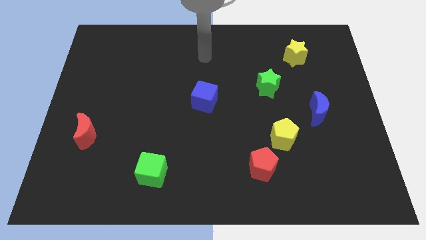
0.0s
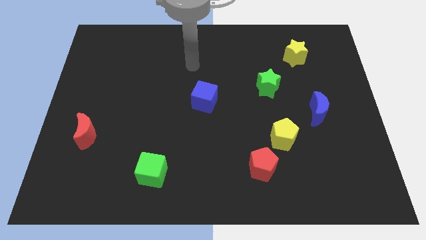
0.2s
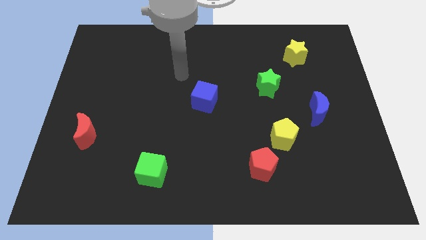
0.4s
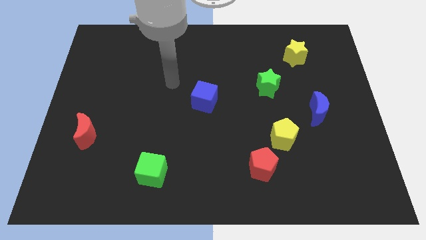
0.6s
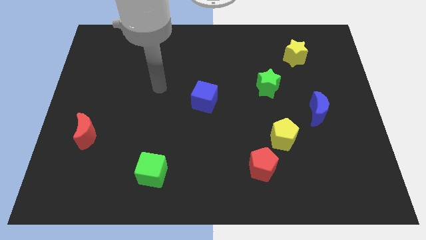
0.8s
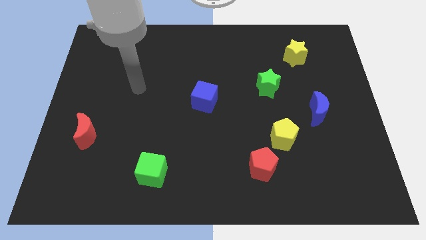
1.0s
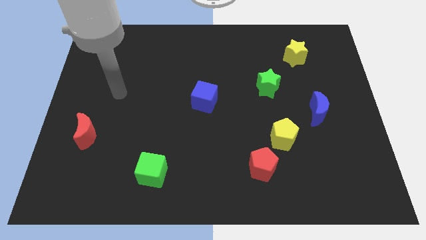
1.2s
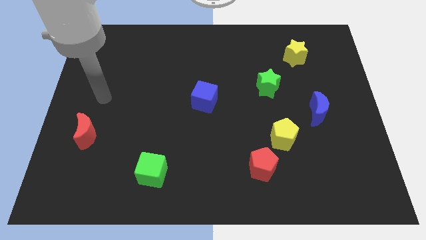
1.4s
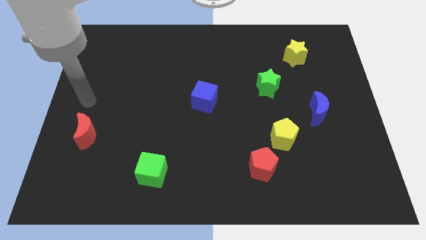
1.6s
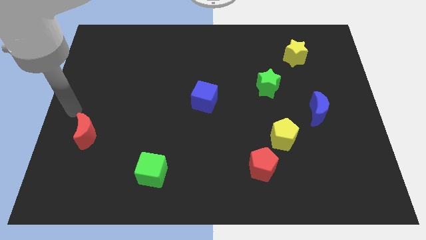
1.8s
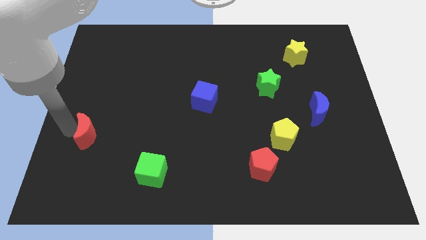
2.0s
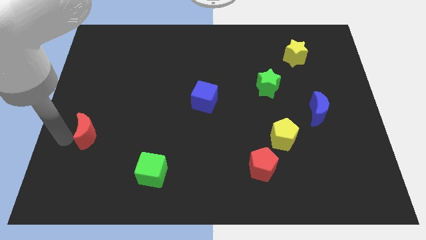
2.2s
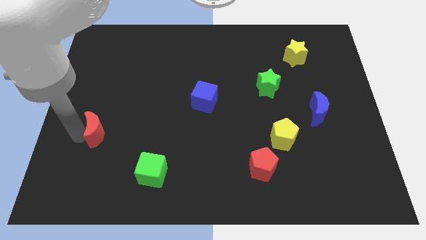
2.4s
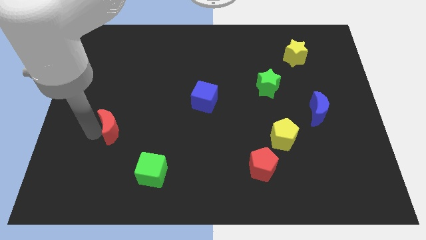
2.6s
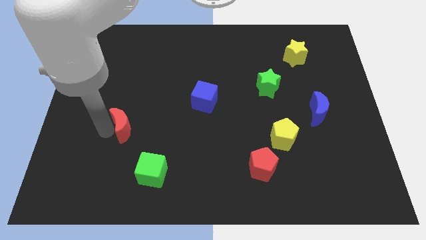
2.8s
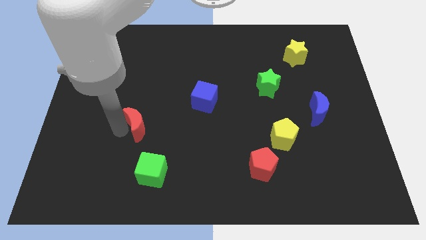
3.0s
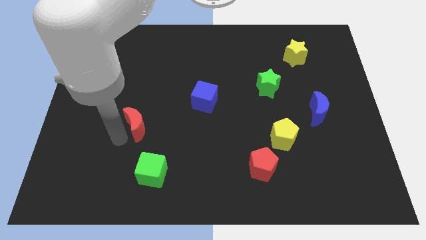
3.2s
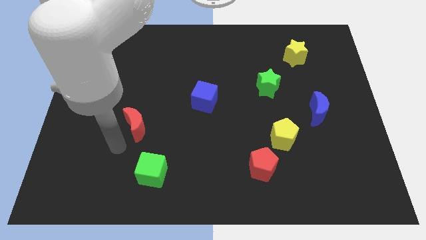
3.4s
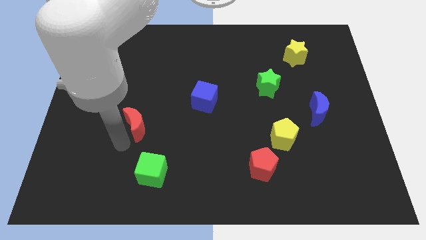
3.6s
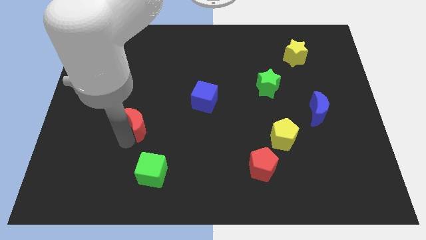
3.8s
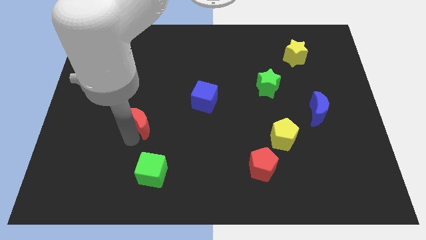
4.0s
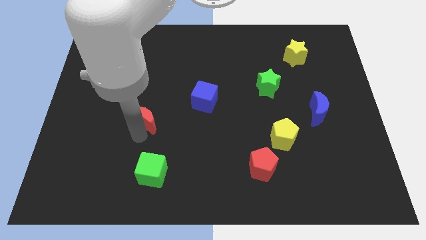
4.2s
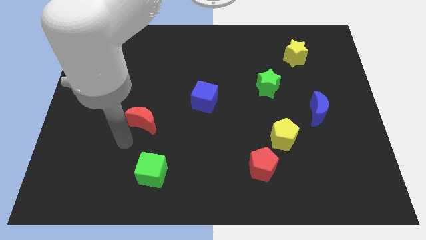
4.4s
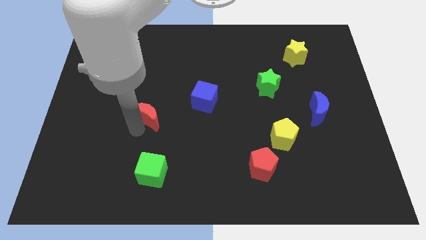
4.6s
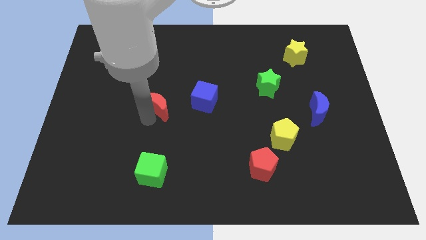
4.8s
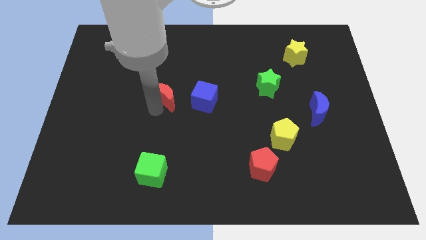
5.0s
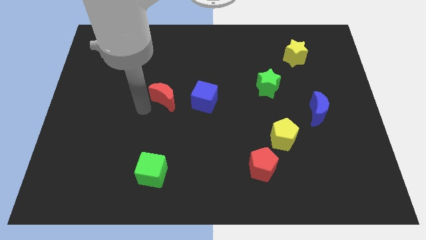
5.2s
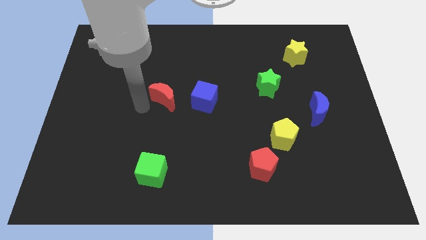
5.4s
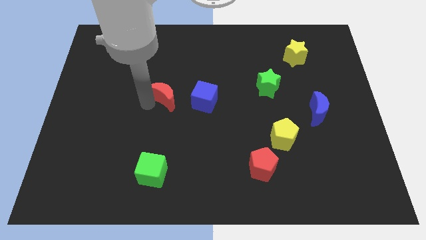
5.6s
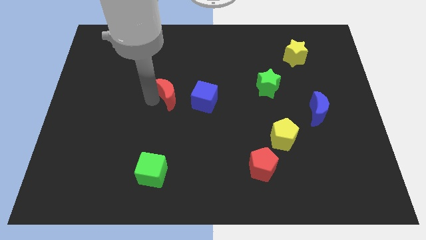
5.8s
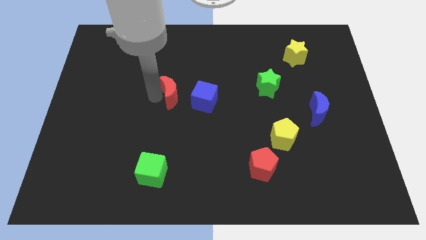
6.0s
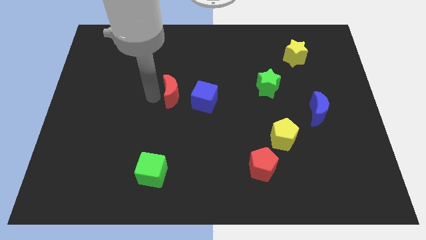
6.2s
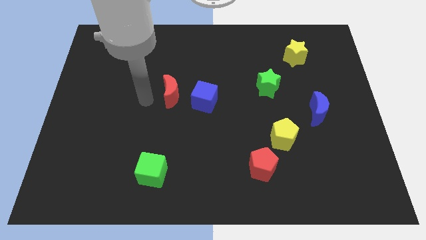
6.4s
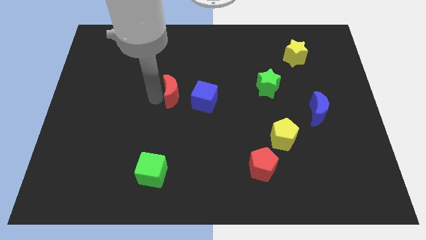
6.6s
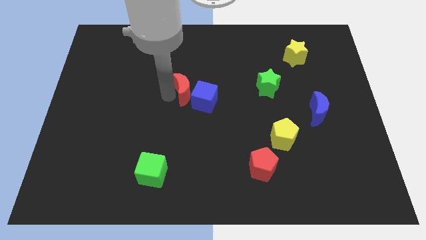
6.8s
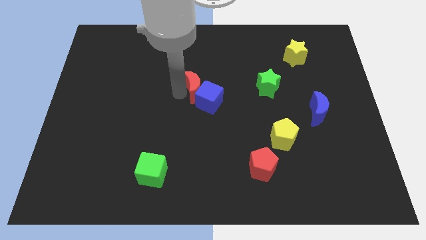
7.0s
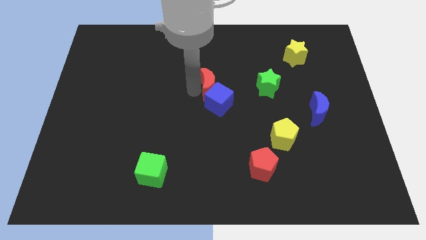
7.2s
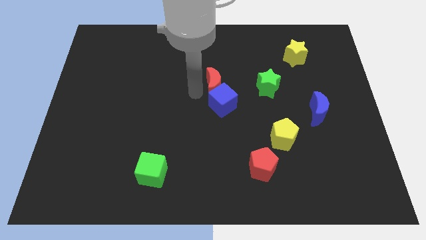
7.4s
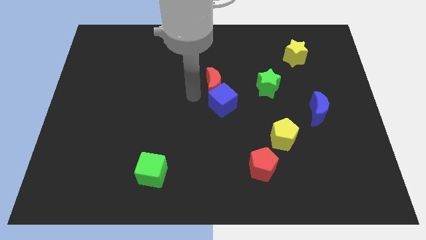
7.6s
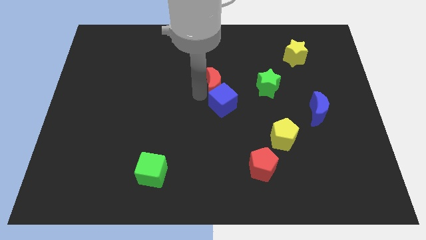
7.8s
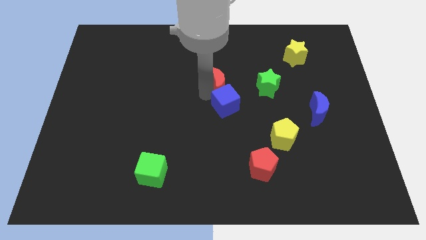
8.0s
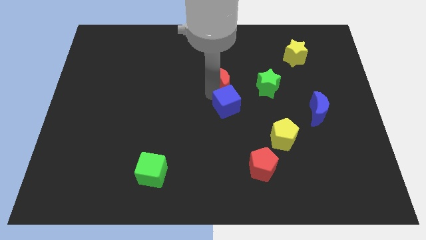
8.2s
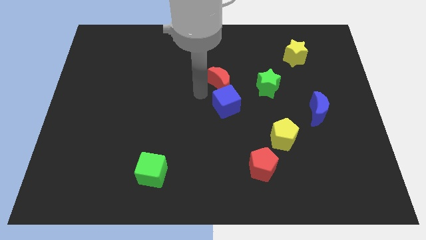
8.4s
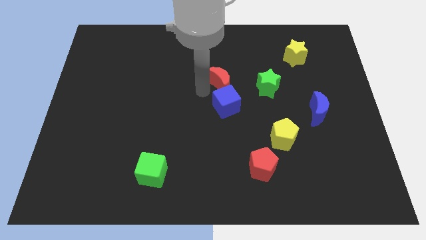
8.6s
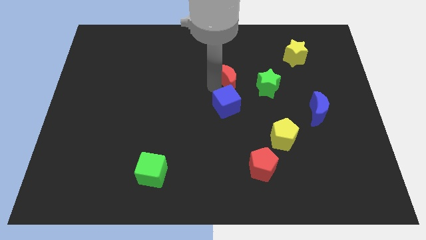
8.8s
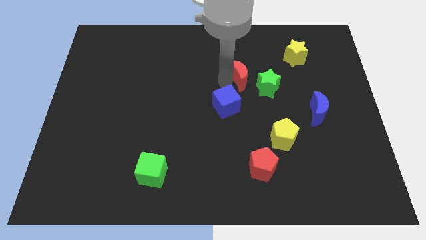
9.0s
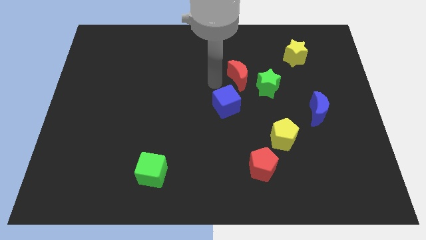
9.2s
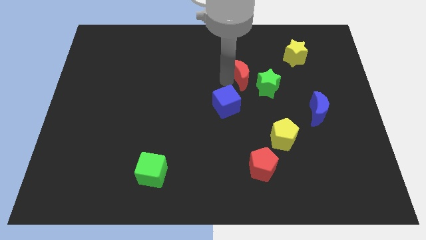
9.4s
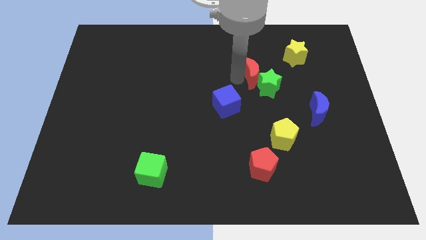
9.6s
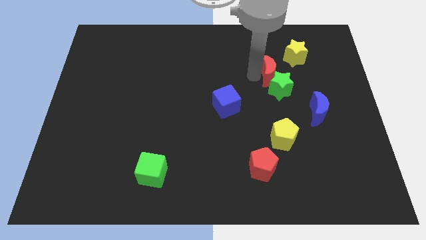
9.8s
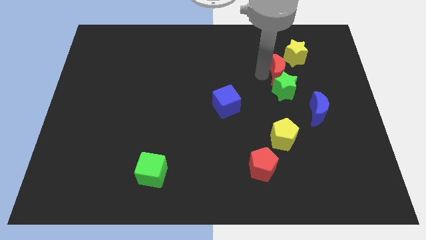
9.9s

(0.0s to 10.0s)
move the red moon to the top right side of the green star

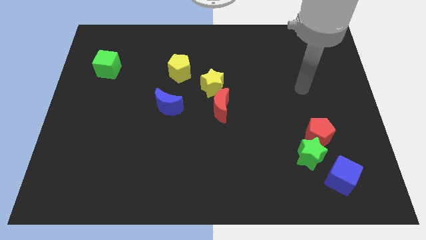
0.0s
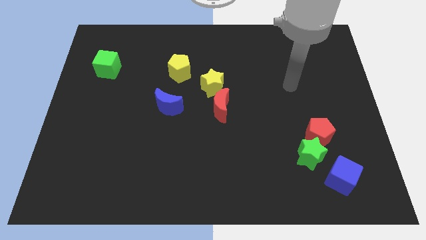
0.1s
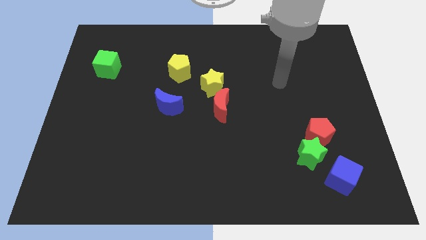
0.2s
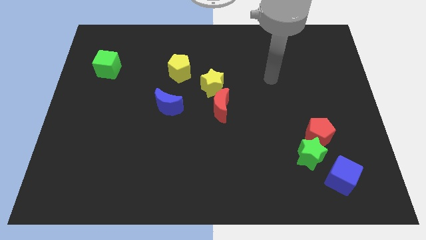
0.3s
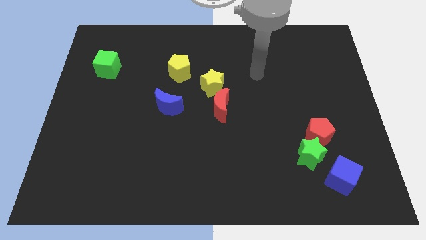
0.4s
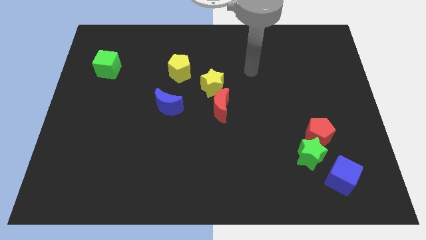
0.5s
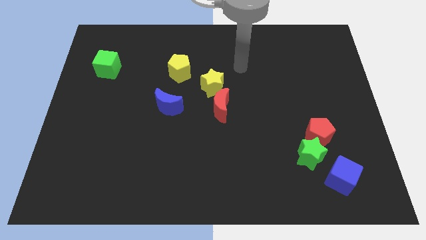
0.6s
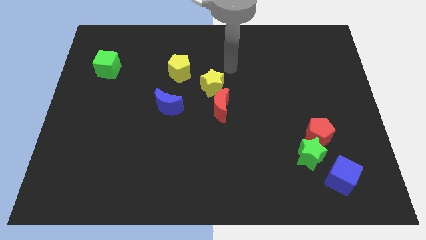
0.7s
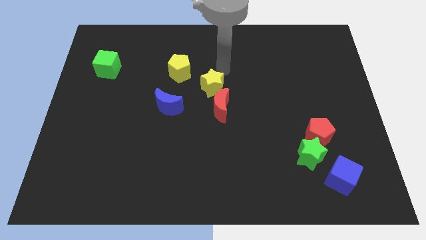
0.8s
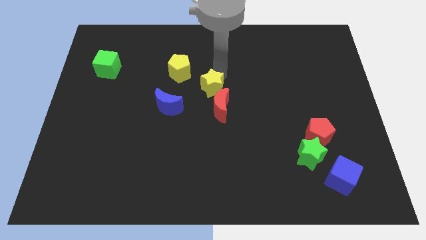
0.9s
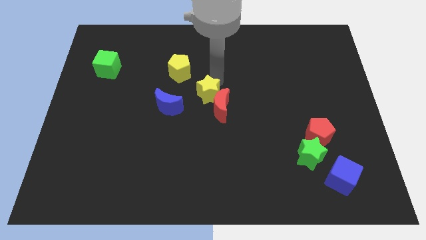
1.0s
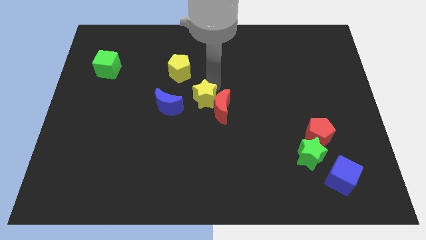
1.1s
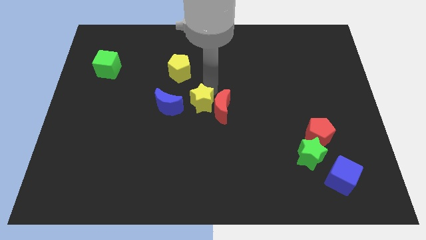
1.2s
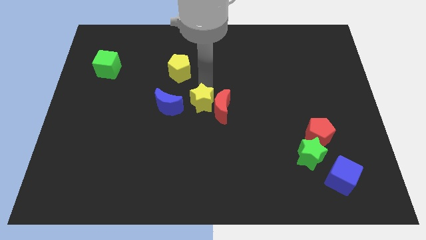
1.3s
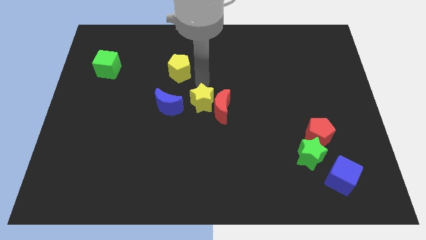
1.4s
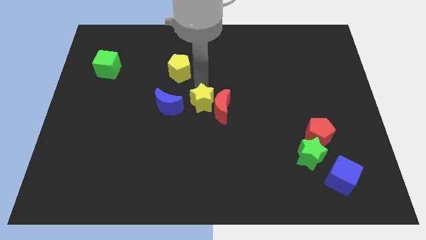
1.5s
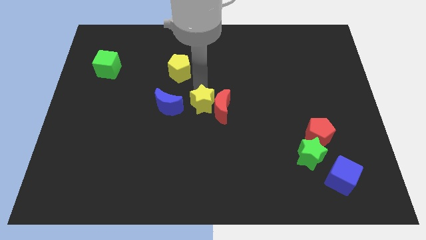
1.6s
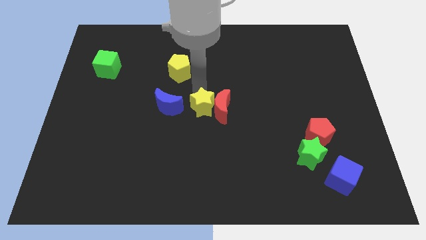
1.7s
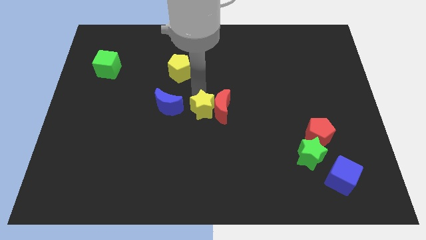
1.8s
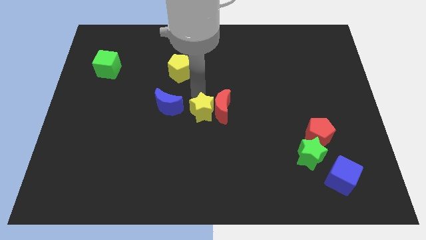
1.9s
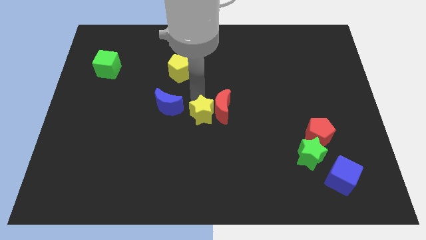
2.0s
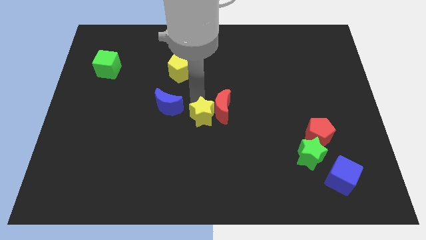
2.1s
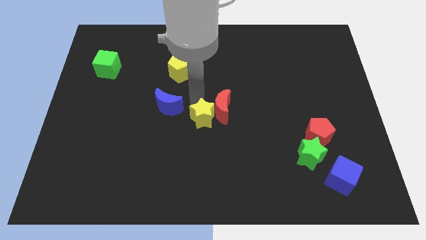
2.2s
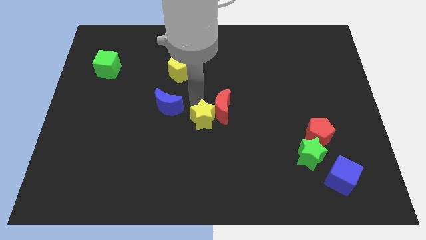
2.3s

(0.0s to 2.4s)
put the yellow star below the red moon
